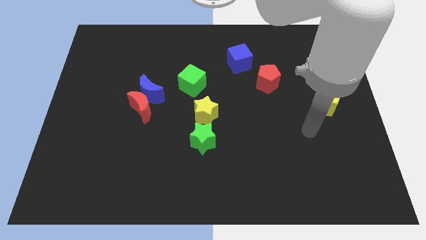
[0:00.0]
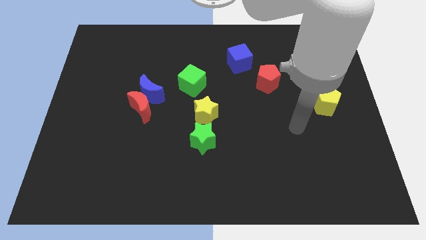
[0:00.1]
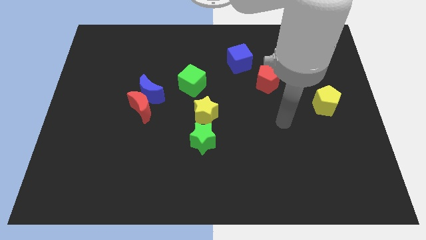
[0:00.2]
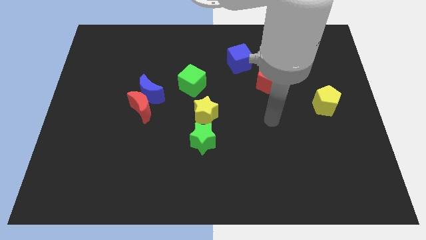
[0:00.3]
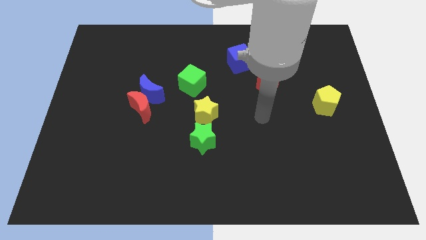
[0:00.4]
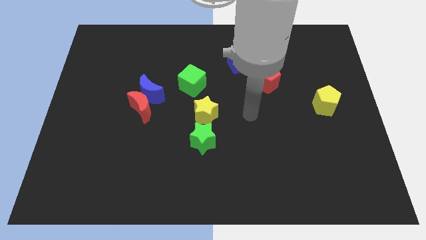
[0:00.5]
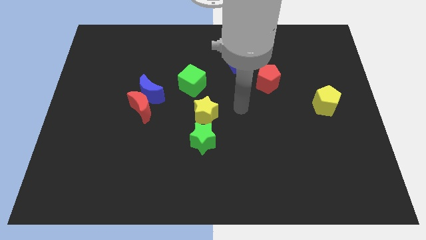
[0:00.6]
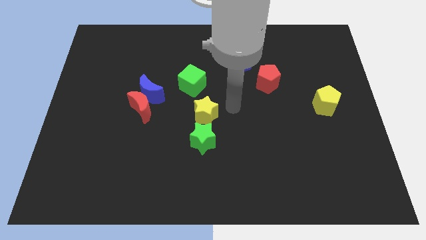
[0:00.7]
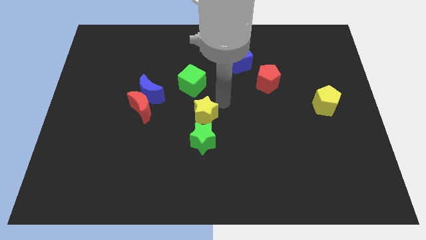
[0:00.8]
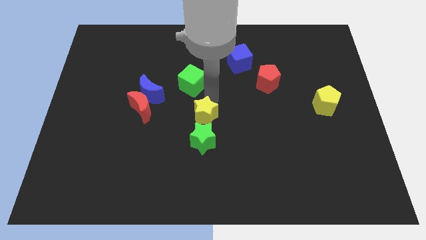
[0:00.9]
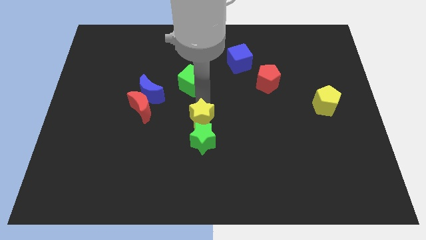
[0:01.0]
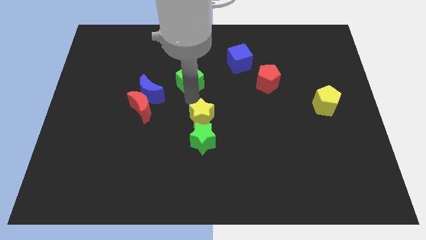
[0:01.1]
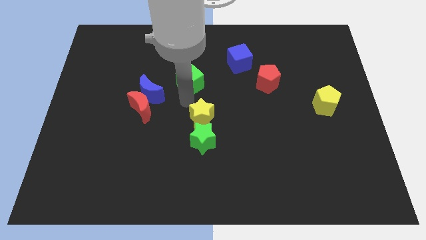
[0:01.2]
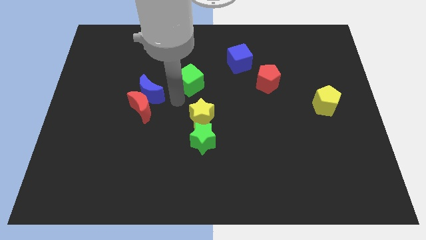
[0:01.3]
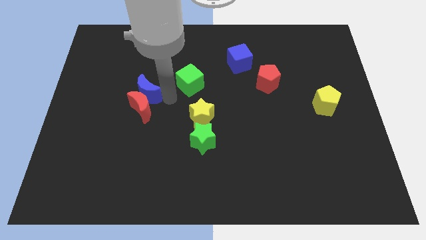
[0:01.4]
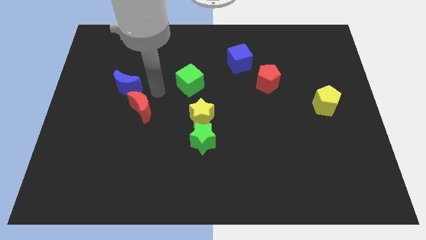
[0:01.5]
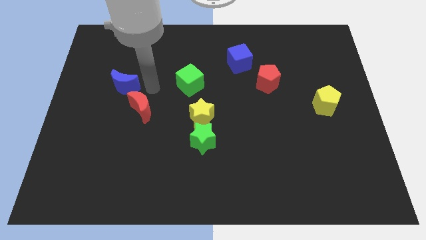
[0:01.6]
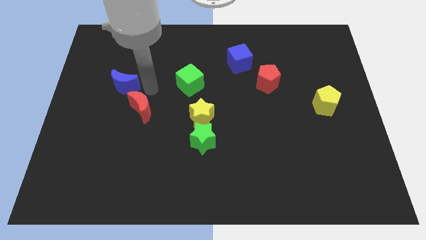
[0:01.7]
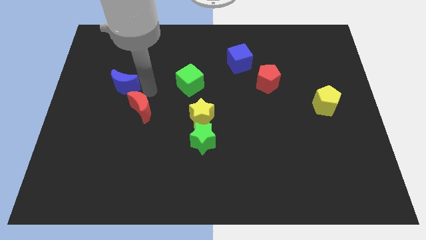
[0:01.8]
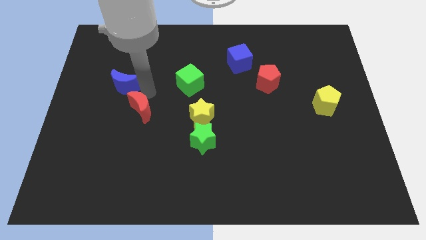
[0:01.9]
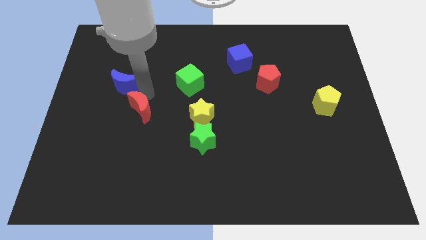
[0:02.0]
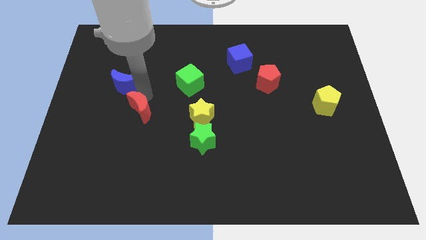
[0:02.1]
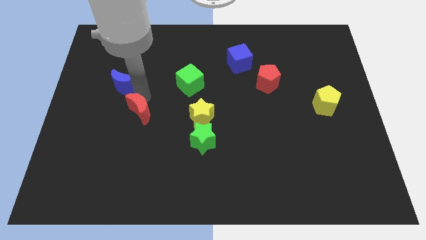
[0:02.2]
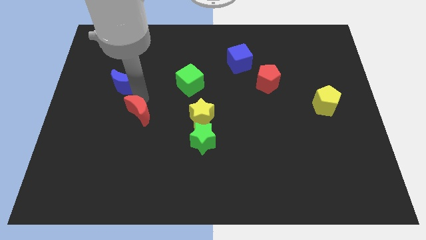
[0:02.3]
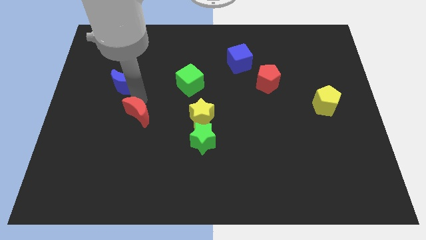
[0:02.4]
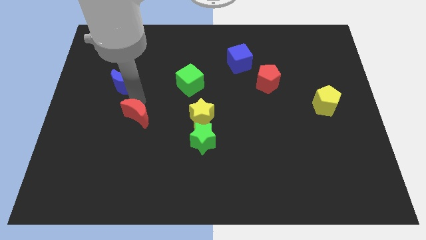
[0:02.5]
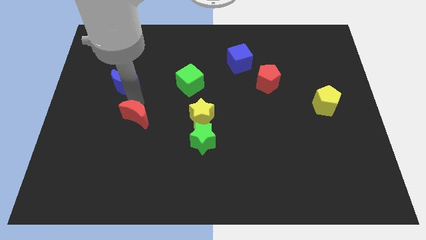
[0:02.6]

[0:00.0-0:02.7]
pull the red moon apart from the blue moon

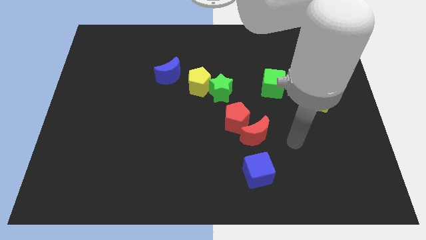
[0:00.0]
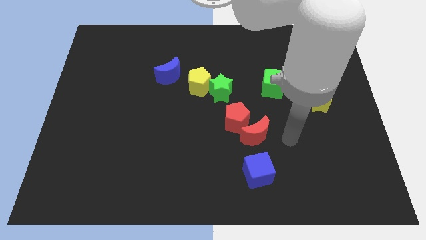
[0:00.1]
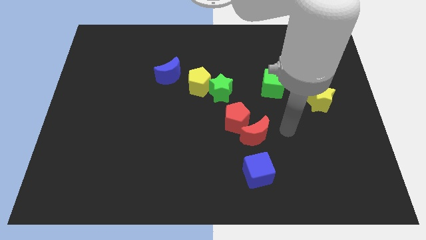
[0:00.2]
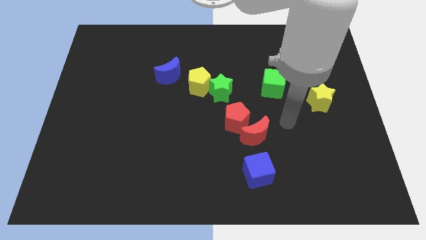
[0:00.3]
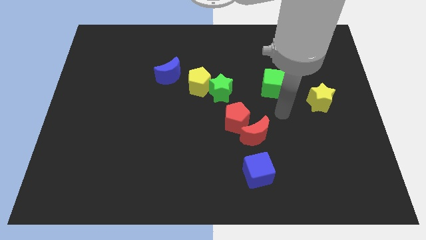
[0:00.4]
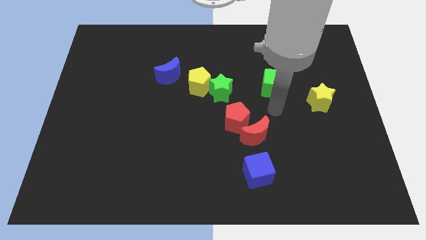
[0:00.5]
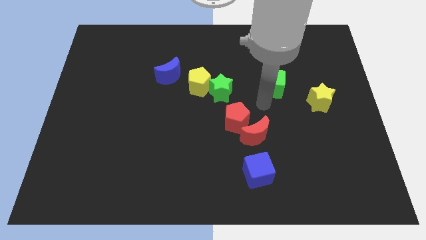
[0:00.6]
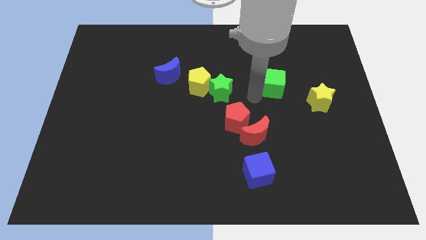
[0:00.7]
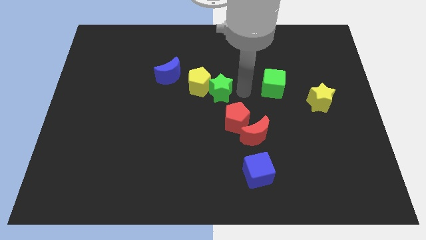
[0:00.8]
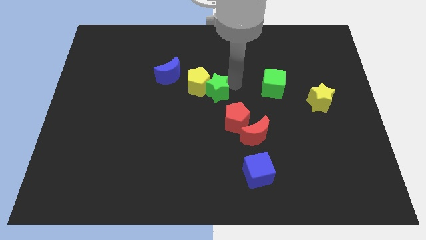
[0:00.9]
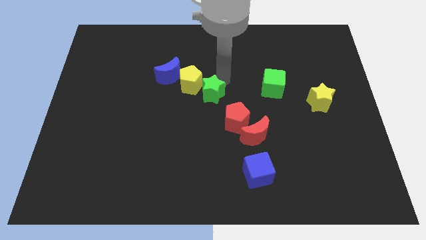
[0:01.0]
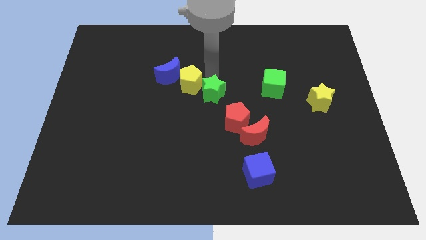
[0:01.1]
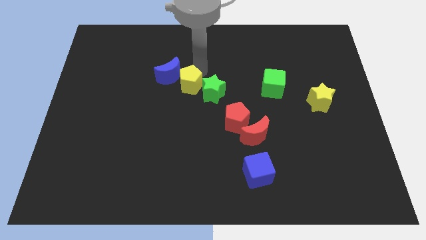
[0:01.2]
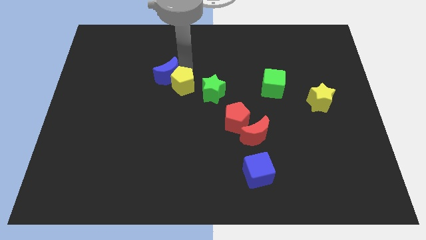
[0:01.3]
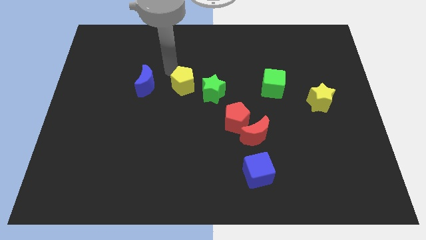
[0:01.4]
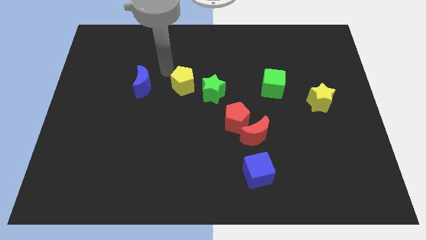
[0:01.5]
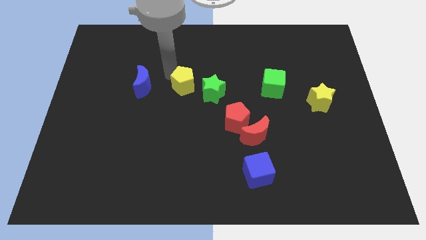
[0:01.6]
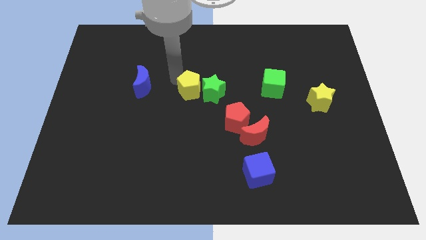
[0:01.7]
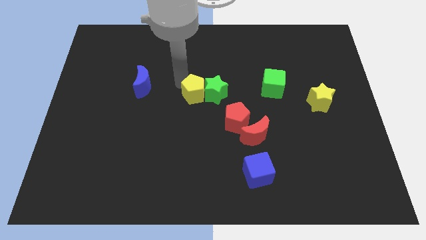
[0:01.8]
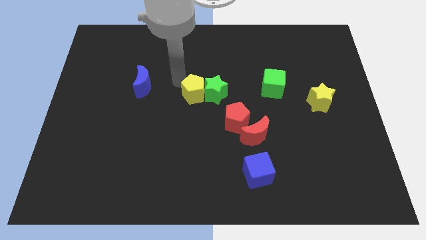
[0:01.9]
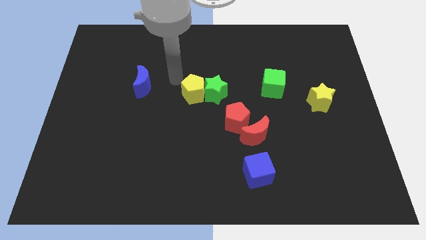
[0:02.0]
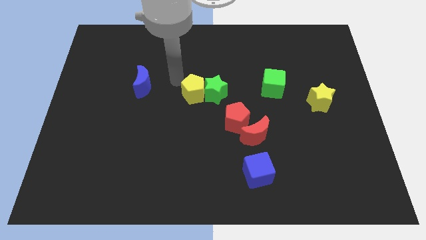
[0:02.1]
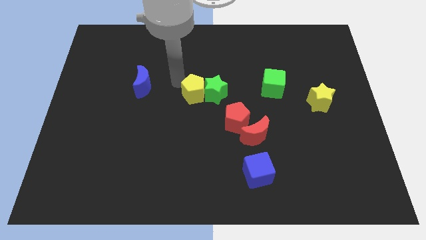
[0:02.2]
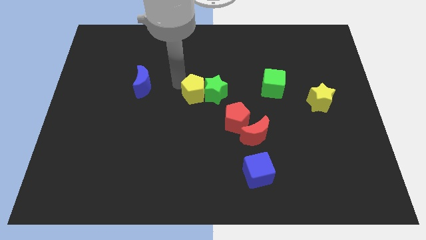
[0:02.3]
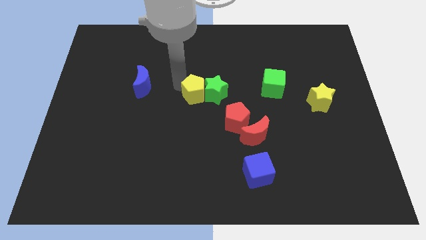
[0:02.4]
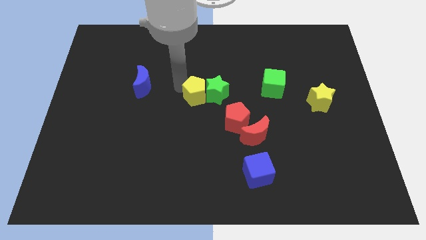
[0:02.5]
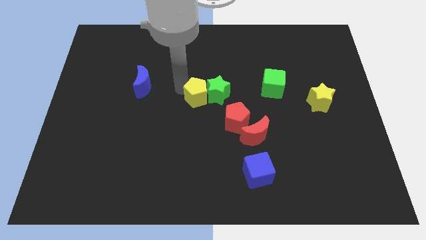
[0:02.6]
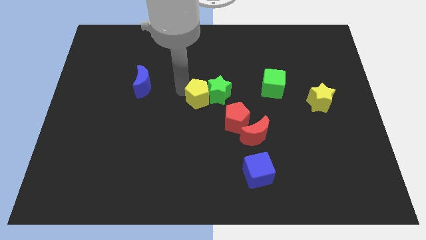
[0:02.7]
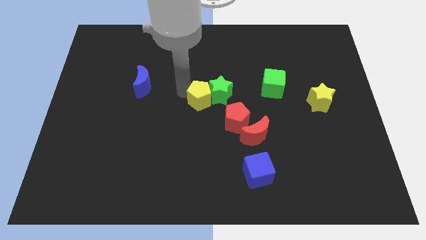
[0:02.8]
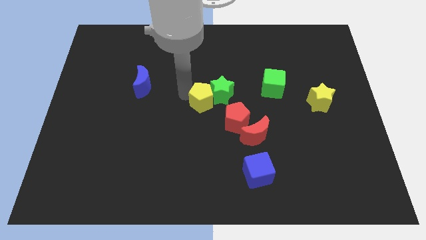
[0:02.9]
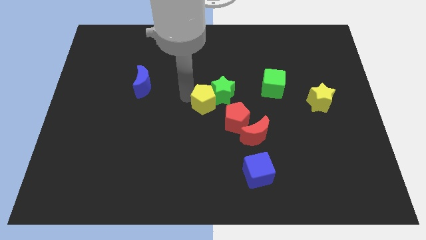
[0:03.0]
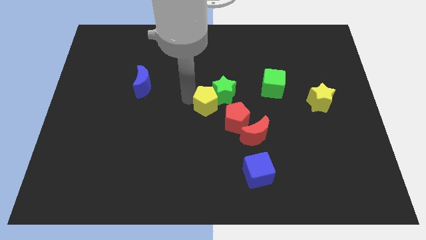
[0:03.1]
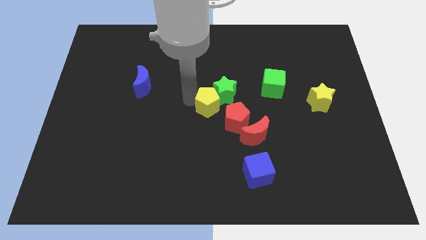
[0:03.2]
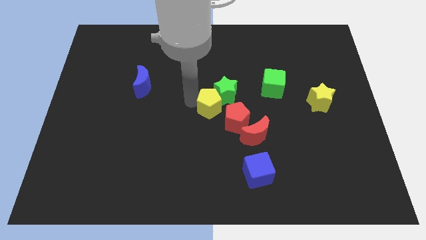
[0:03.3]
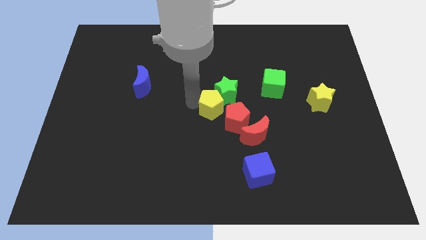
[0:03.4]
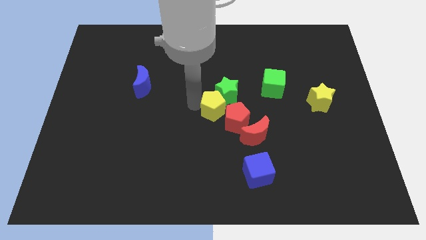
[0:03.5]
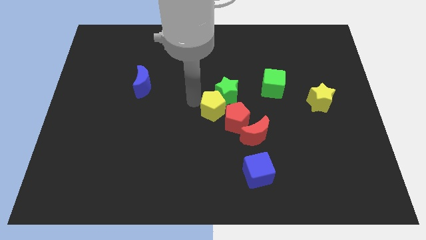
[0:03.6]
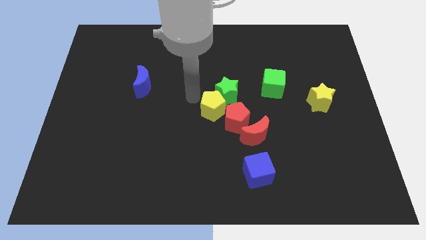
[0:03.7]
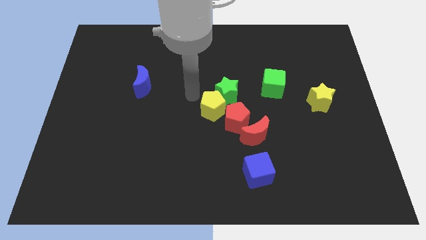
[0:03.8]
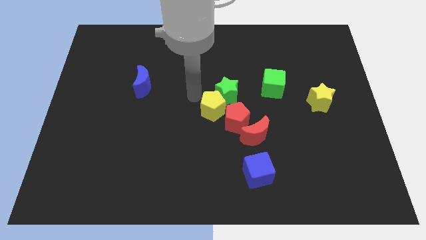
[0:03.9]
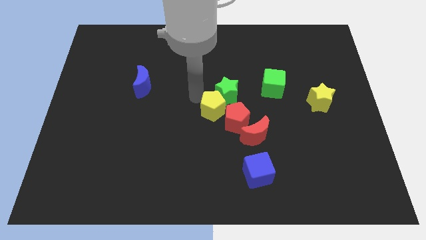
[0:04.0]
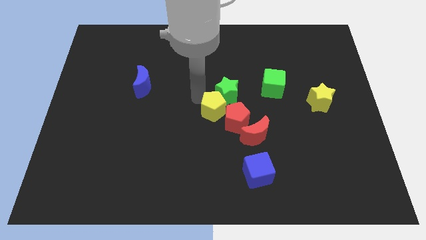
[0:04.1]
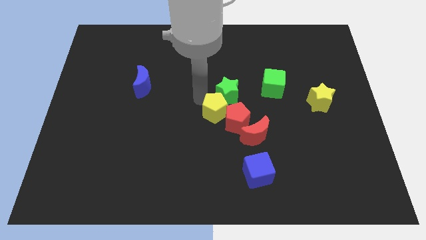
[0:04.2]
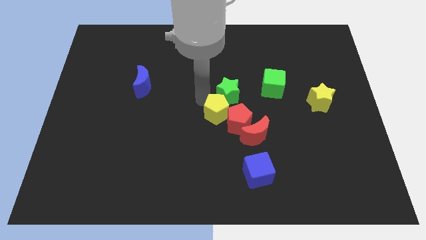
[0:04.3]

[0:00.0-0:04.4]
separate the yellow pentagon from the green star and blue moon

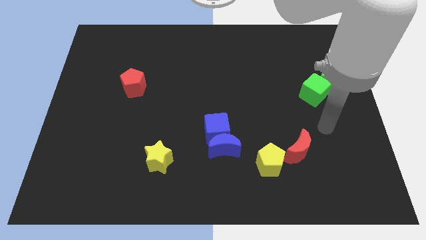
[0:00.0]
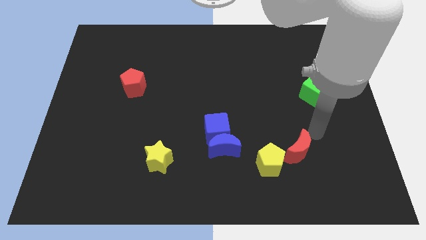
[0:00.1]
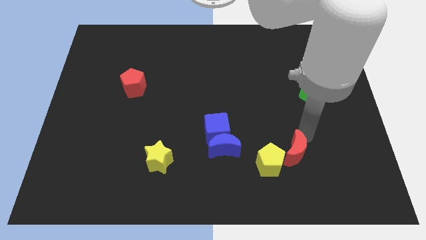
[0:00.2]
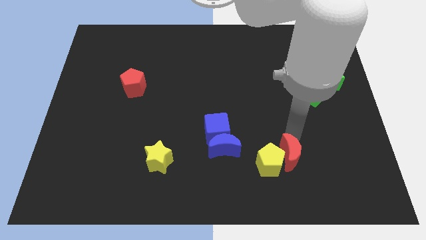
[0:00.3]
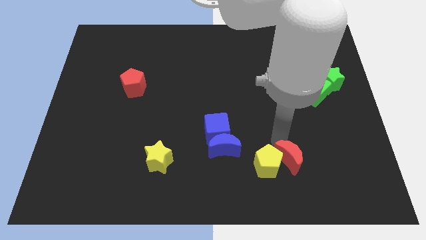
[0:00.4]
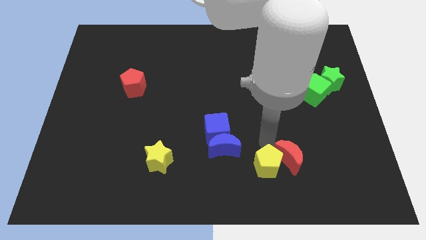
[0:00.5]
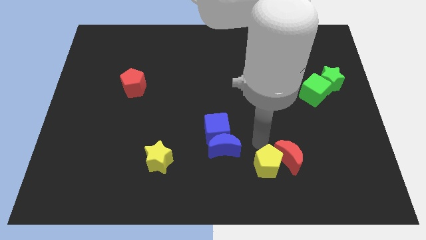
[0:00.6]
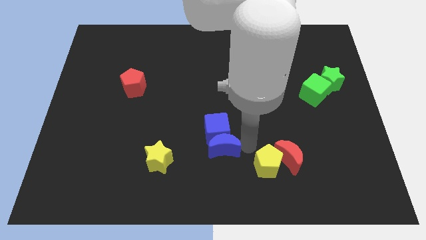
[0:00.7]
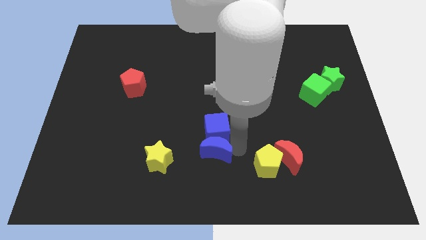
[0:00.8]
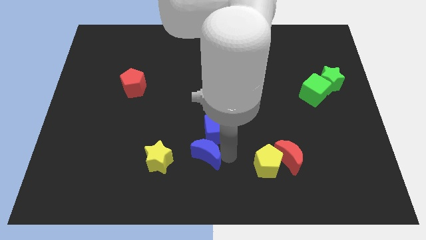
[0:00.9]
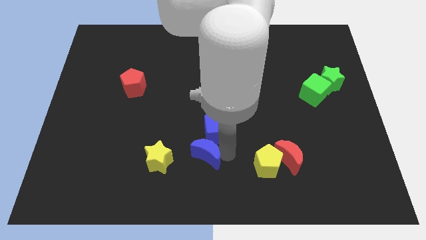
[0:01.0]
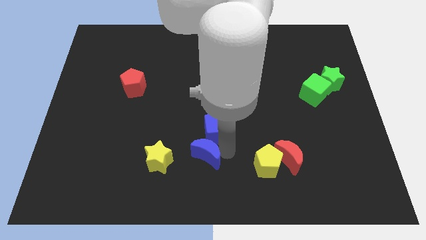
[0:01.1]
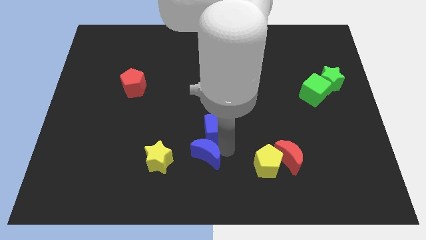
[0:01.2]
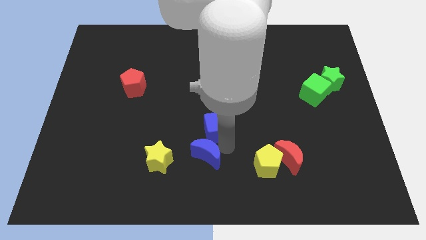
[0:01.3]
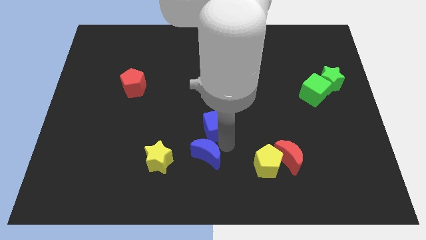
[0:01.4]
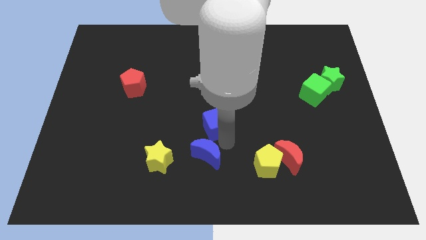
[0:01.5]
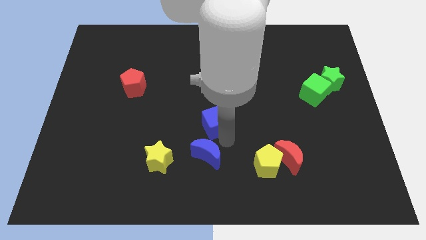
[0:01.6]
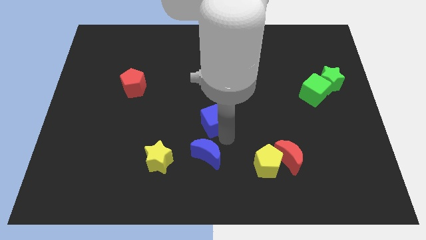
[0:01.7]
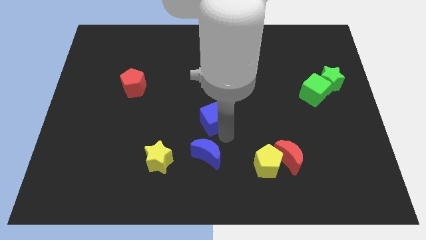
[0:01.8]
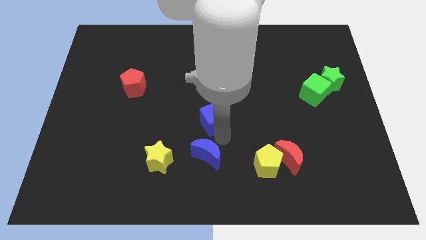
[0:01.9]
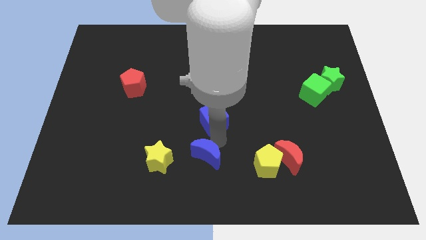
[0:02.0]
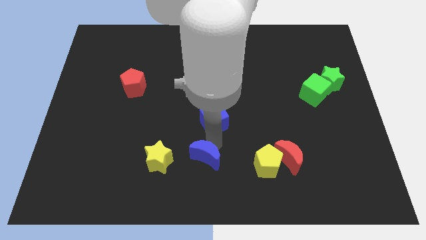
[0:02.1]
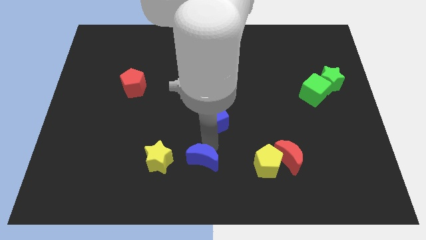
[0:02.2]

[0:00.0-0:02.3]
pull the blue cube apart from the blue moon
